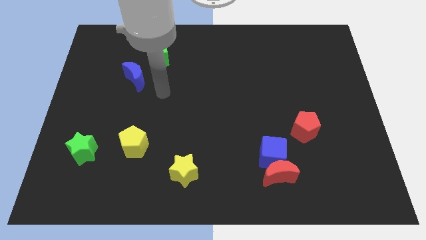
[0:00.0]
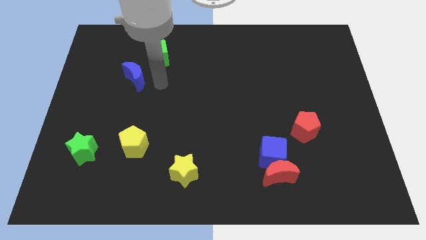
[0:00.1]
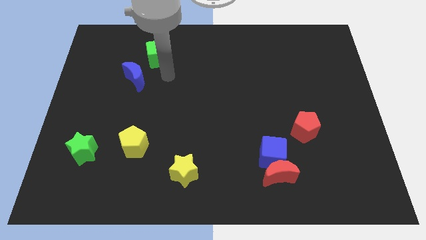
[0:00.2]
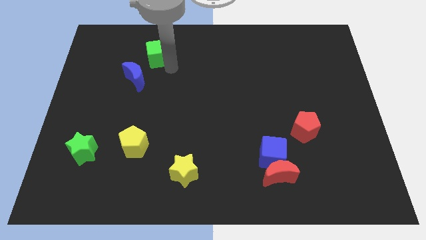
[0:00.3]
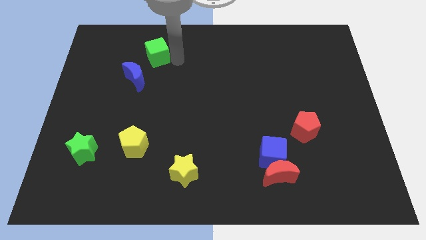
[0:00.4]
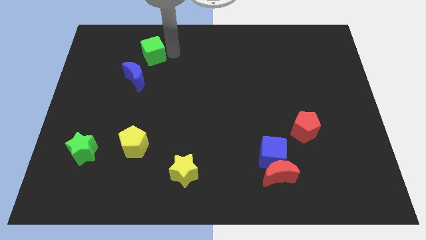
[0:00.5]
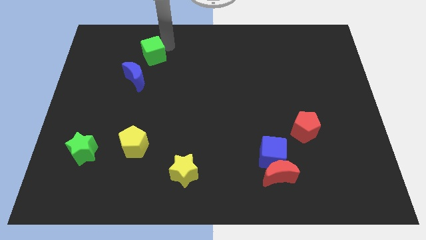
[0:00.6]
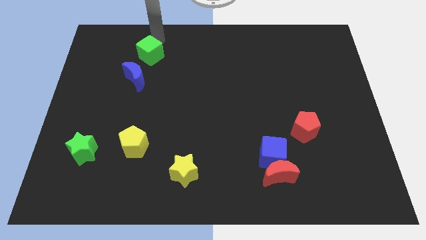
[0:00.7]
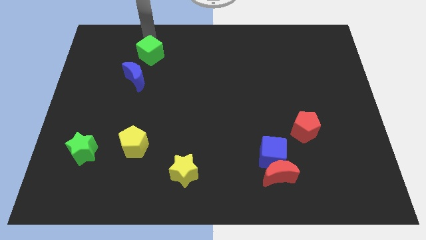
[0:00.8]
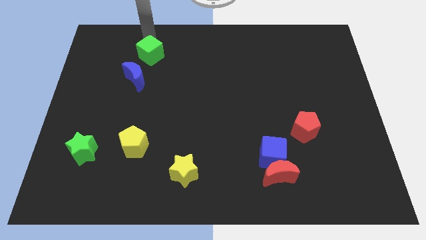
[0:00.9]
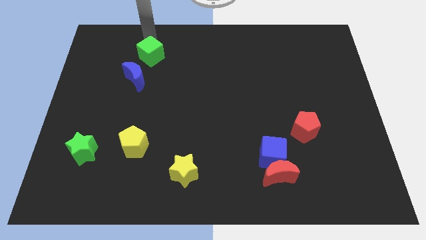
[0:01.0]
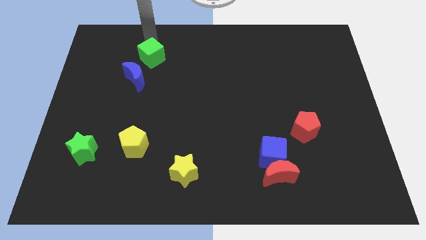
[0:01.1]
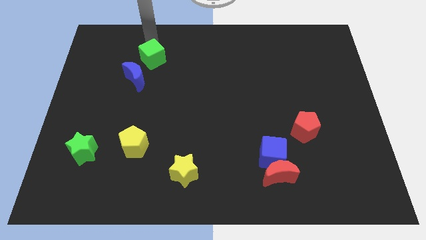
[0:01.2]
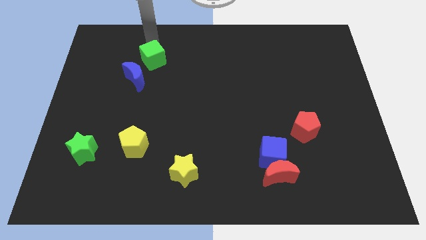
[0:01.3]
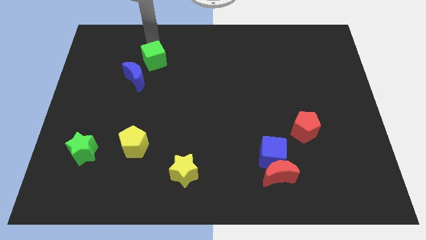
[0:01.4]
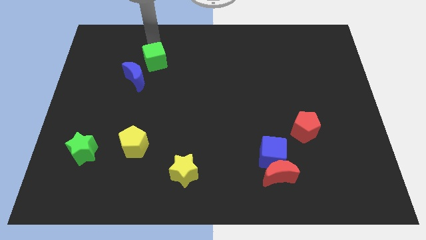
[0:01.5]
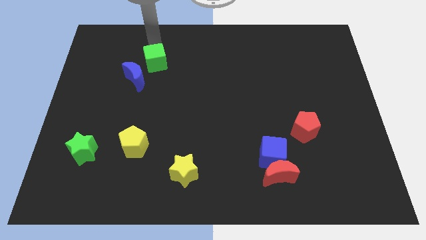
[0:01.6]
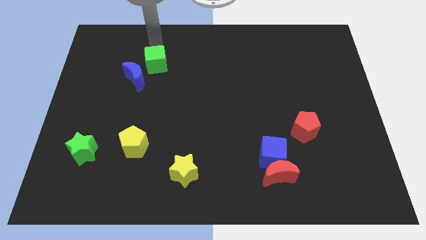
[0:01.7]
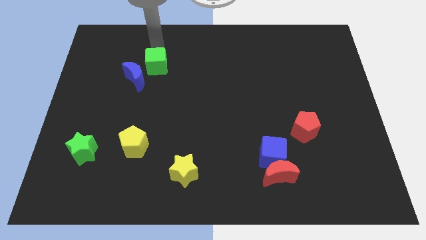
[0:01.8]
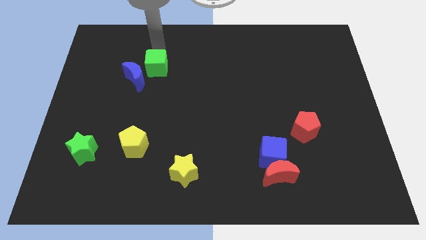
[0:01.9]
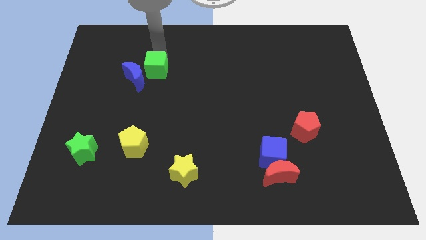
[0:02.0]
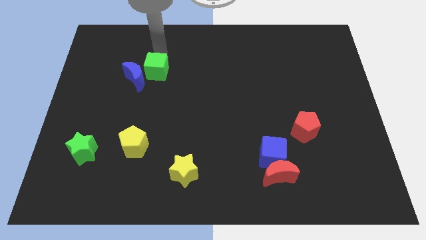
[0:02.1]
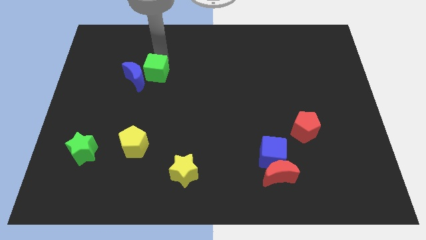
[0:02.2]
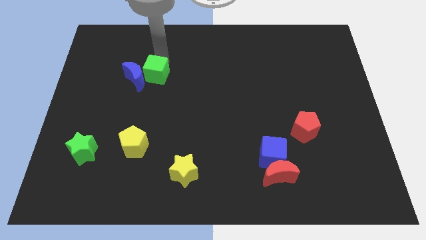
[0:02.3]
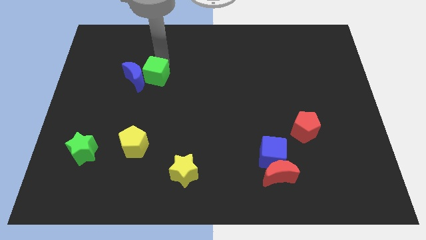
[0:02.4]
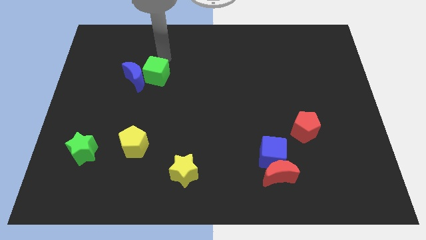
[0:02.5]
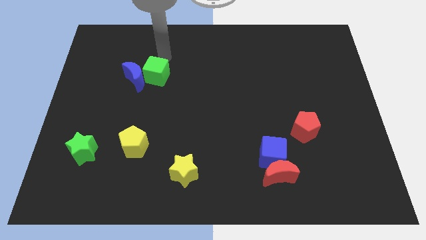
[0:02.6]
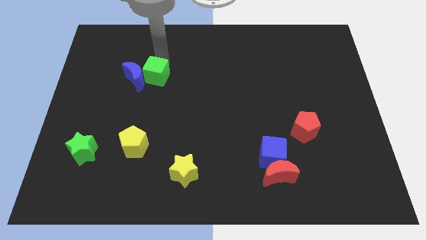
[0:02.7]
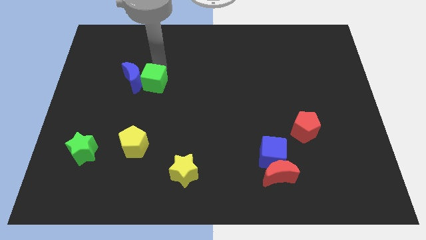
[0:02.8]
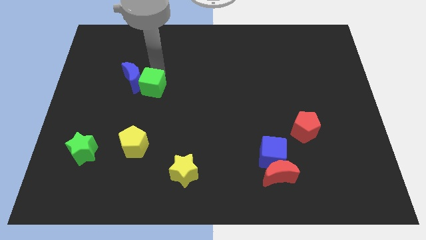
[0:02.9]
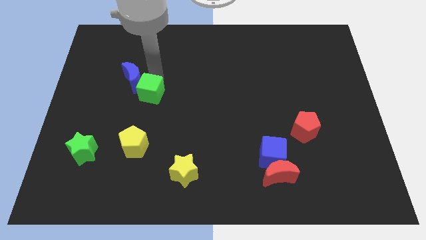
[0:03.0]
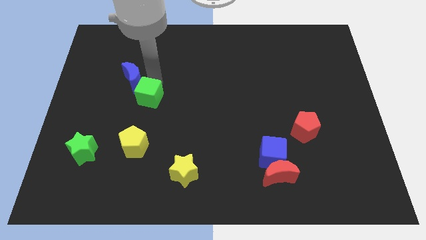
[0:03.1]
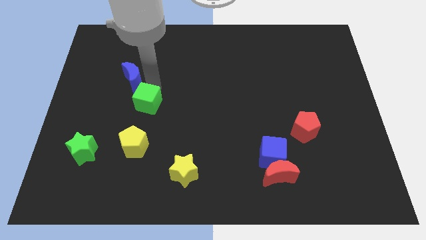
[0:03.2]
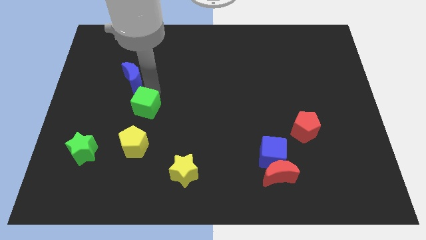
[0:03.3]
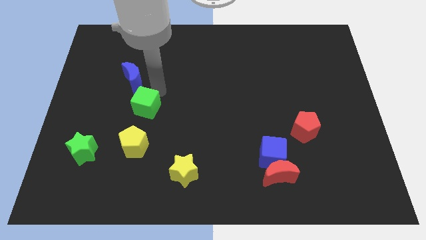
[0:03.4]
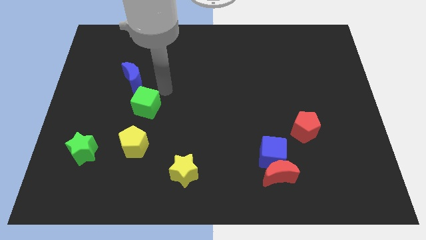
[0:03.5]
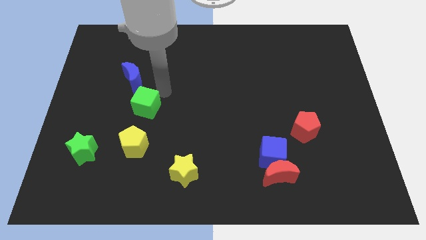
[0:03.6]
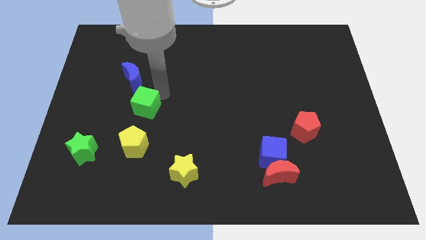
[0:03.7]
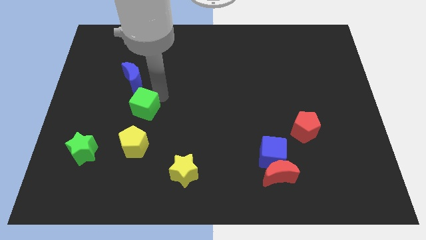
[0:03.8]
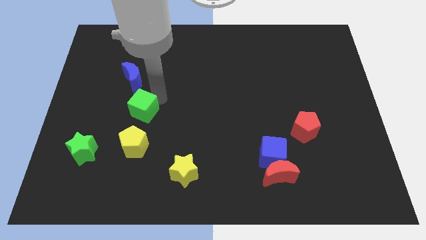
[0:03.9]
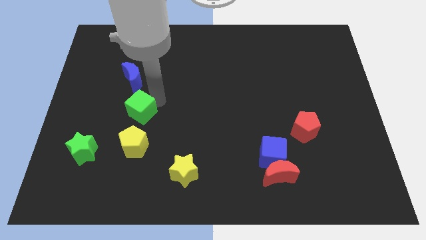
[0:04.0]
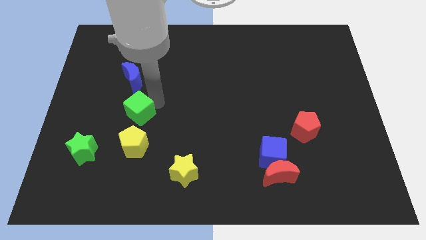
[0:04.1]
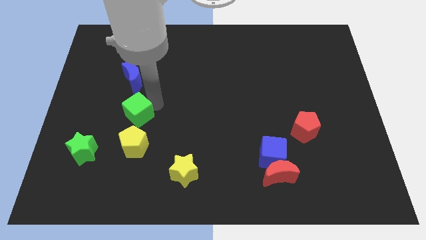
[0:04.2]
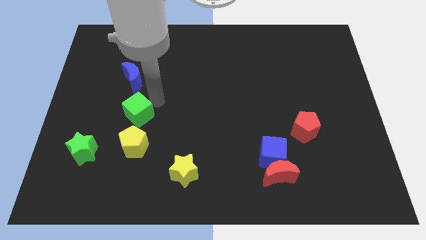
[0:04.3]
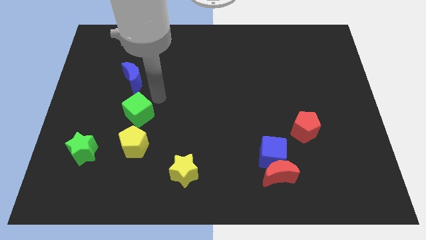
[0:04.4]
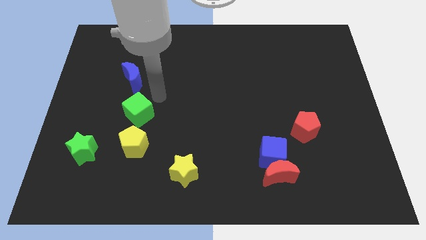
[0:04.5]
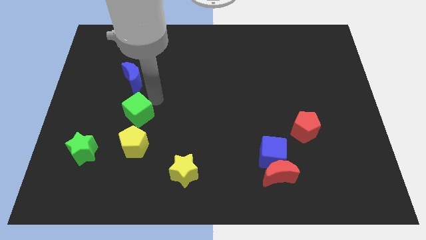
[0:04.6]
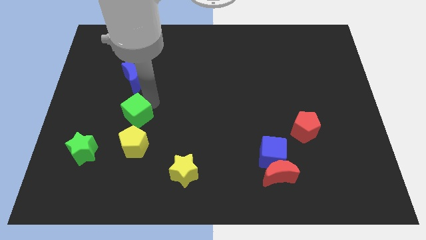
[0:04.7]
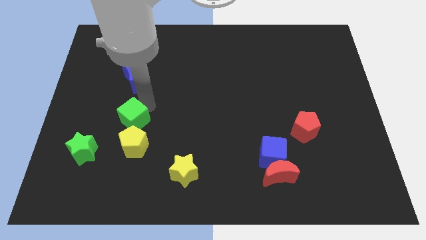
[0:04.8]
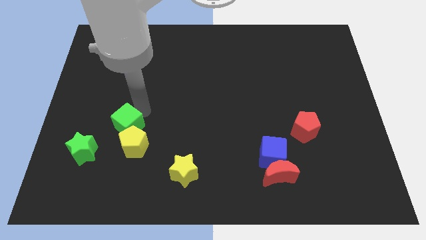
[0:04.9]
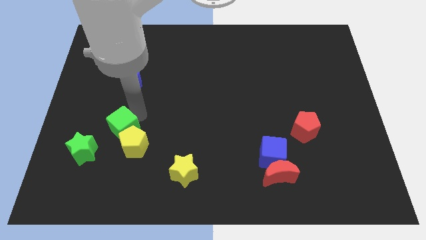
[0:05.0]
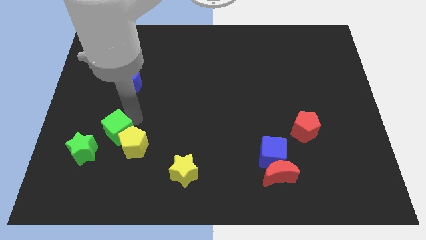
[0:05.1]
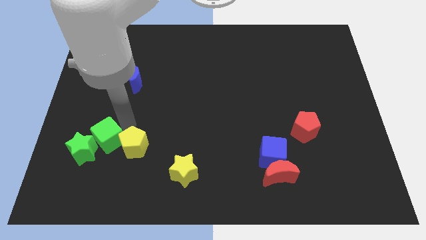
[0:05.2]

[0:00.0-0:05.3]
slide the green cube towards the green star

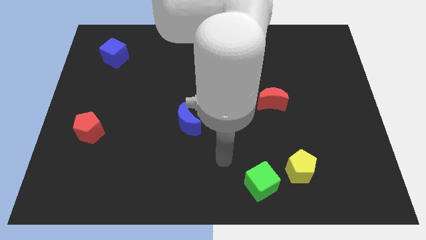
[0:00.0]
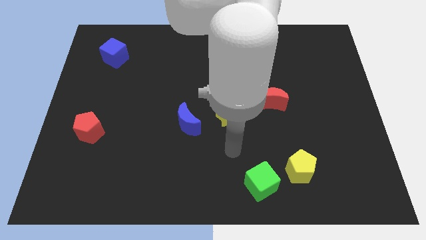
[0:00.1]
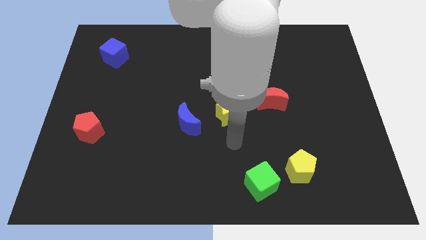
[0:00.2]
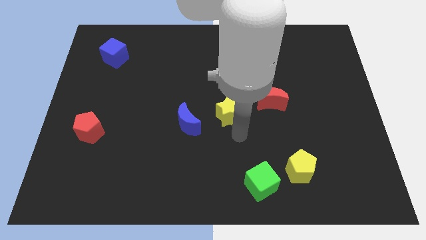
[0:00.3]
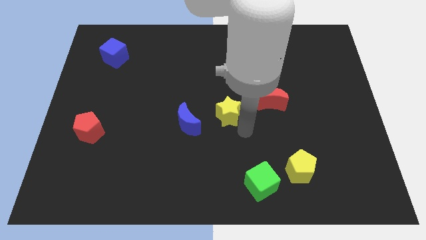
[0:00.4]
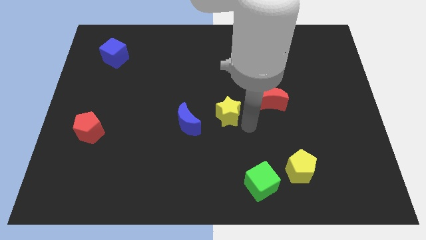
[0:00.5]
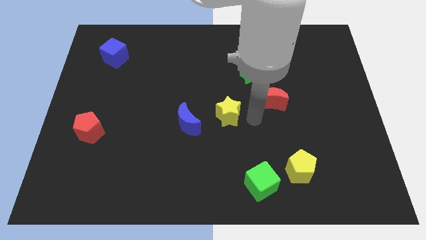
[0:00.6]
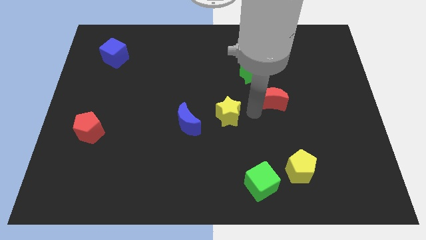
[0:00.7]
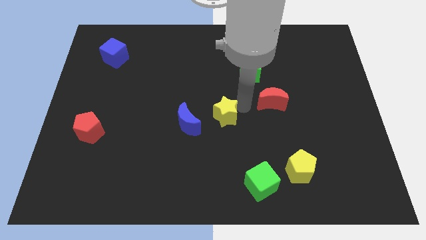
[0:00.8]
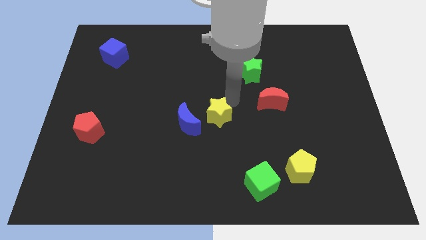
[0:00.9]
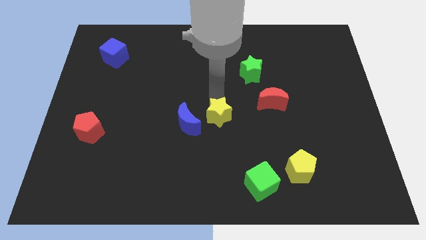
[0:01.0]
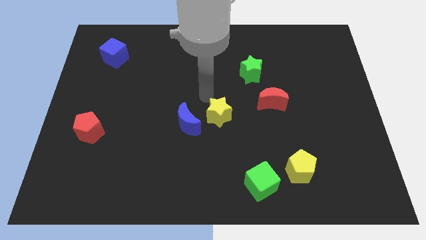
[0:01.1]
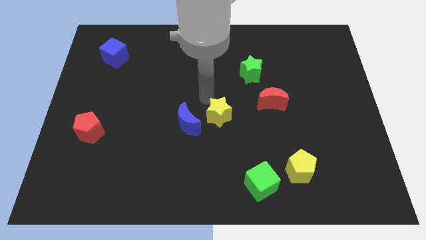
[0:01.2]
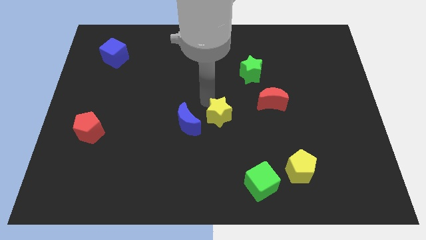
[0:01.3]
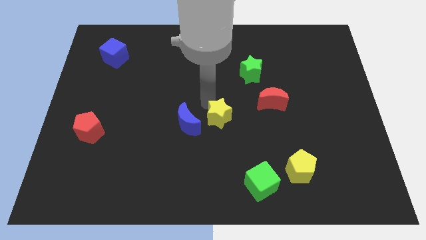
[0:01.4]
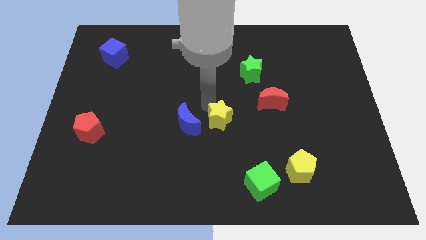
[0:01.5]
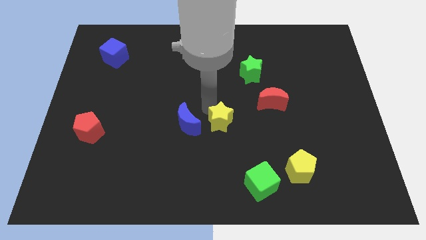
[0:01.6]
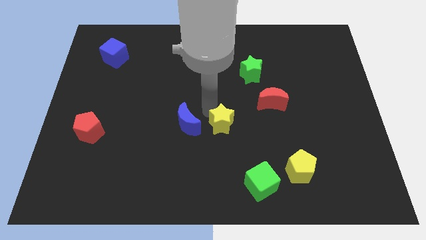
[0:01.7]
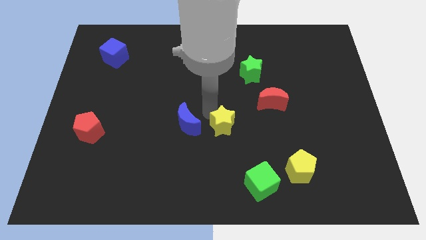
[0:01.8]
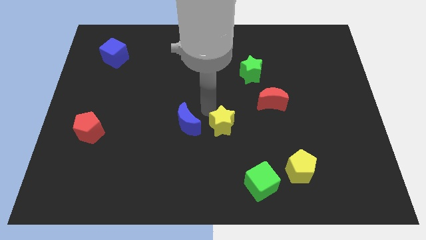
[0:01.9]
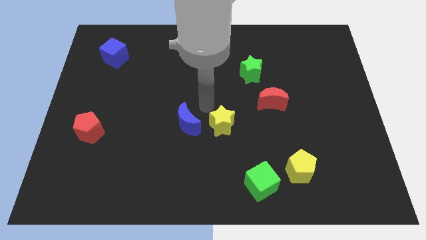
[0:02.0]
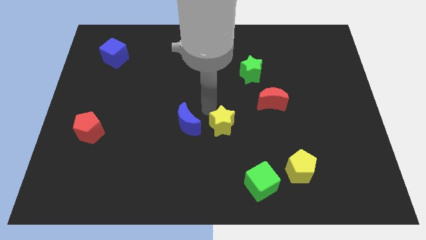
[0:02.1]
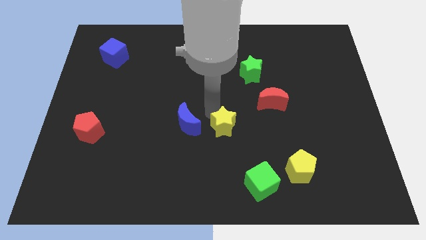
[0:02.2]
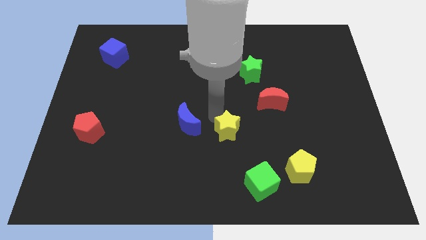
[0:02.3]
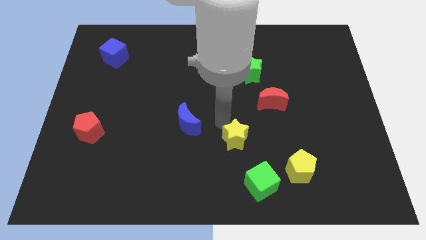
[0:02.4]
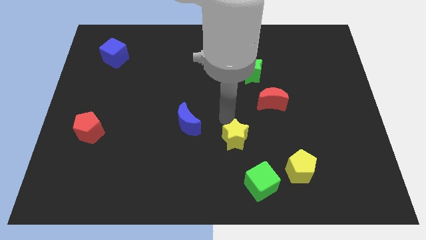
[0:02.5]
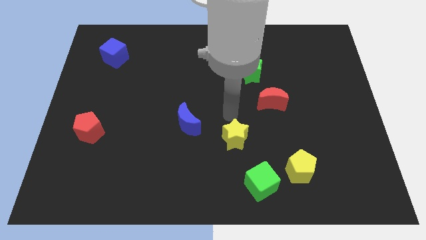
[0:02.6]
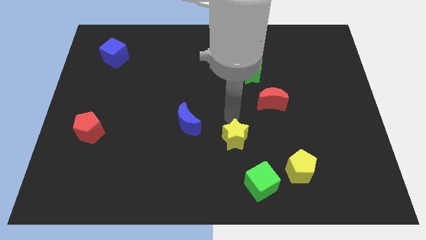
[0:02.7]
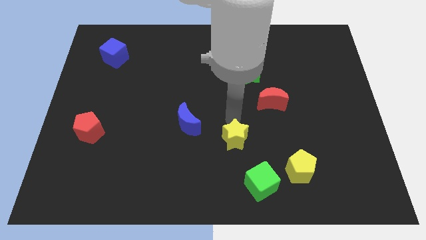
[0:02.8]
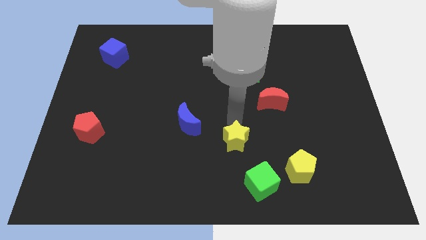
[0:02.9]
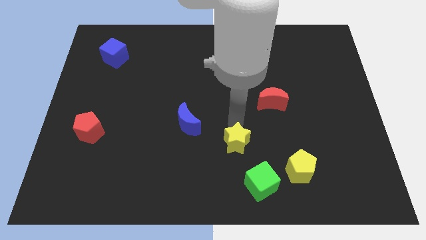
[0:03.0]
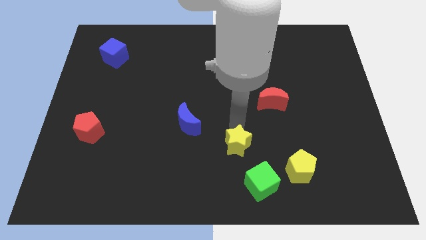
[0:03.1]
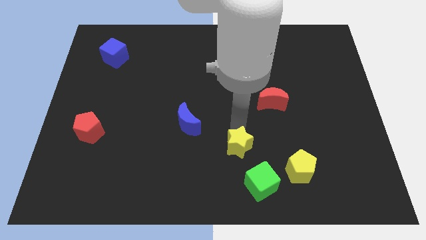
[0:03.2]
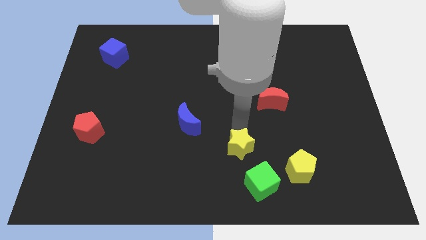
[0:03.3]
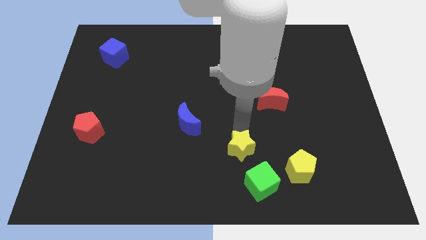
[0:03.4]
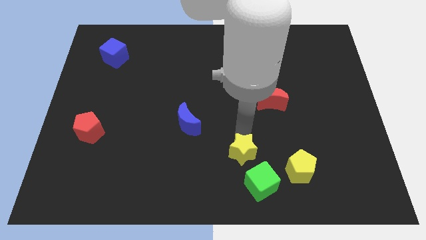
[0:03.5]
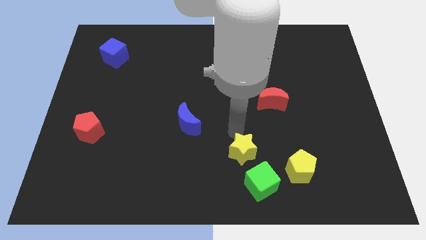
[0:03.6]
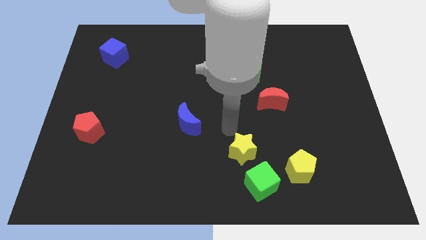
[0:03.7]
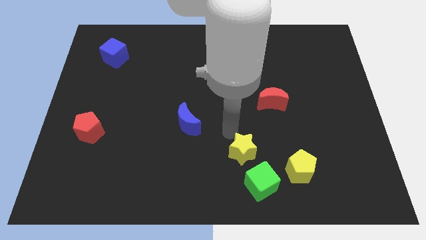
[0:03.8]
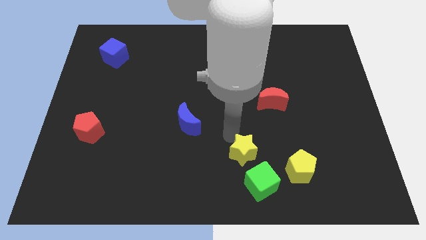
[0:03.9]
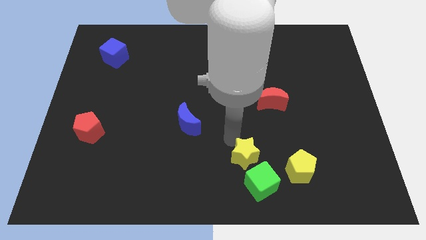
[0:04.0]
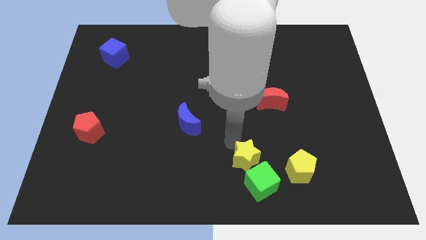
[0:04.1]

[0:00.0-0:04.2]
push the yellow star to the green cube
